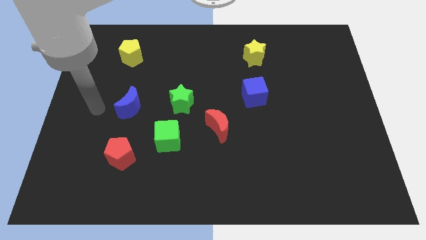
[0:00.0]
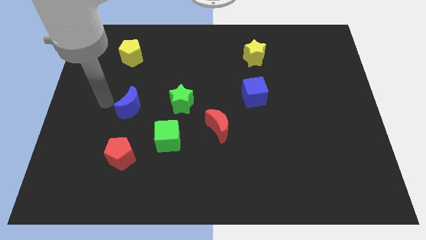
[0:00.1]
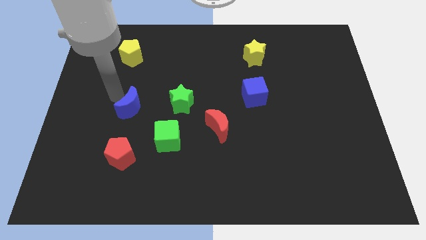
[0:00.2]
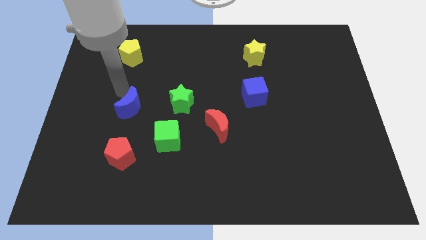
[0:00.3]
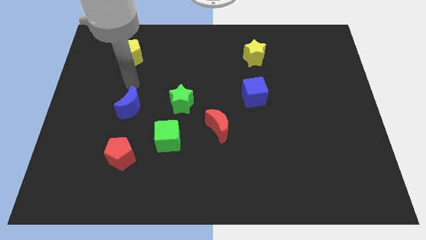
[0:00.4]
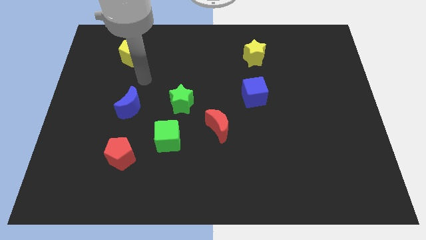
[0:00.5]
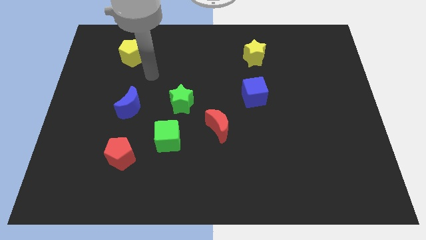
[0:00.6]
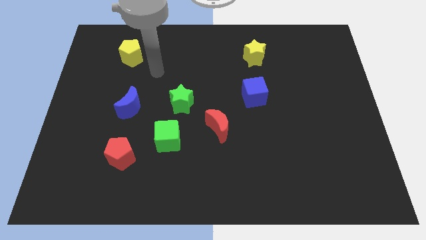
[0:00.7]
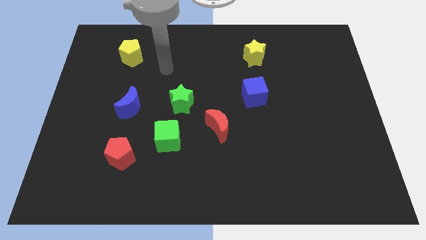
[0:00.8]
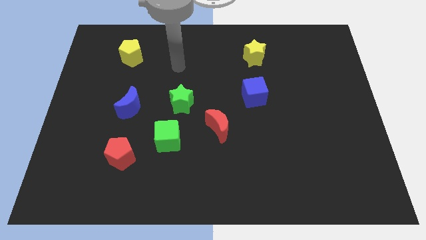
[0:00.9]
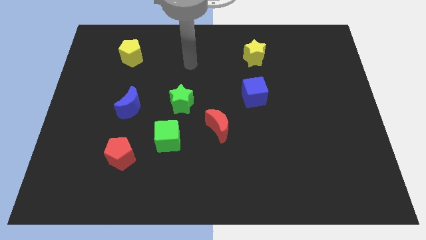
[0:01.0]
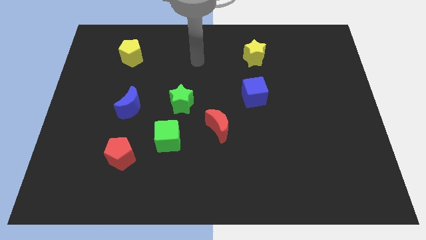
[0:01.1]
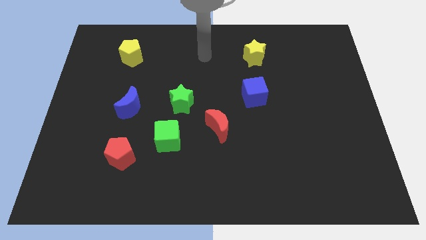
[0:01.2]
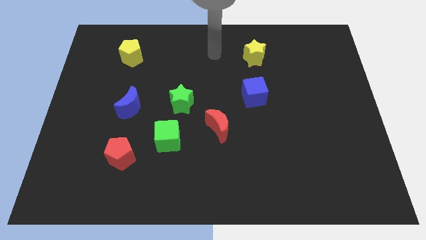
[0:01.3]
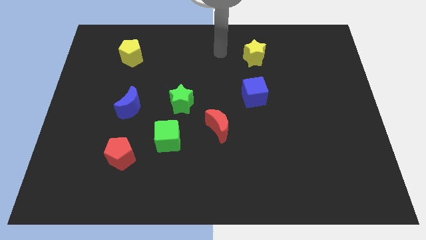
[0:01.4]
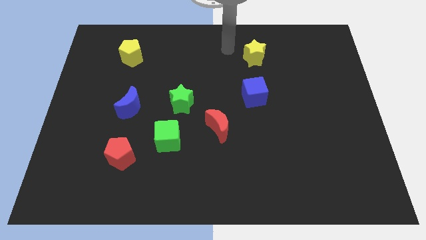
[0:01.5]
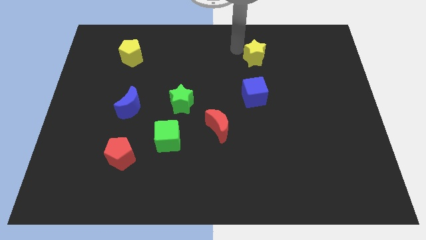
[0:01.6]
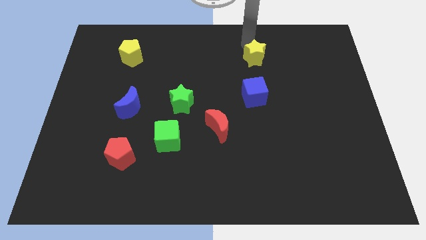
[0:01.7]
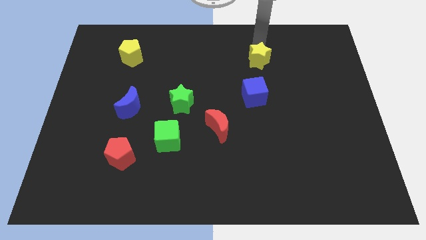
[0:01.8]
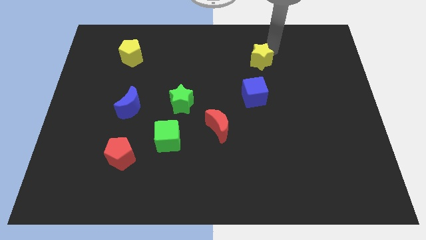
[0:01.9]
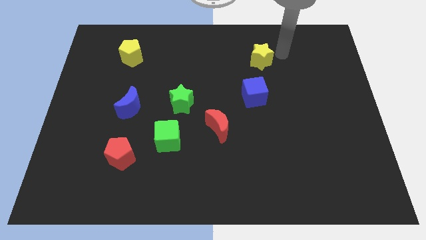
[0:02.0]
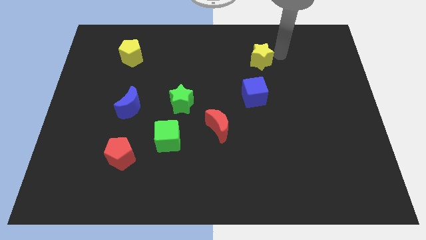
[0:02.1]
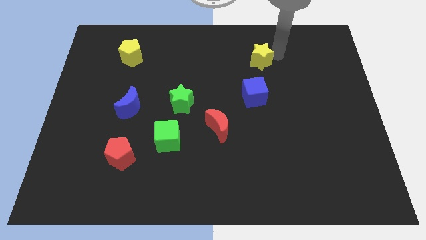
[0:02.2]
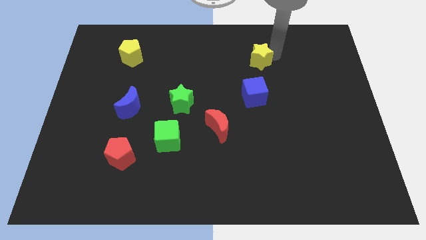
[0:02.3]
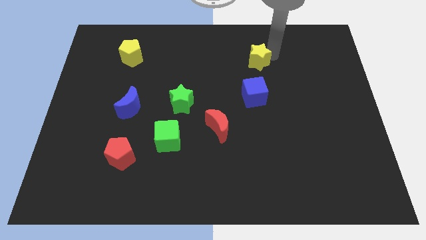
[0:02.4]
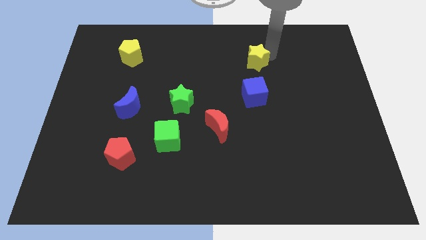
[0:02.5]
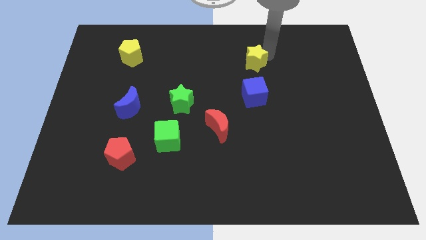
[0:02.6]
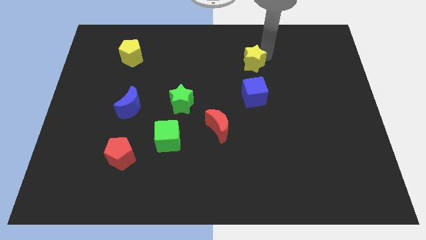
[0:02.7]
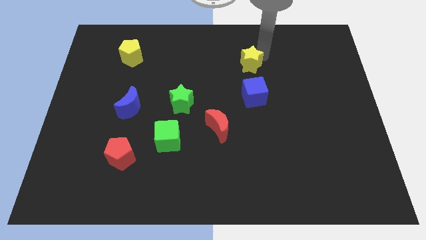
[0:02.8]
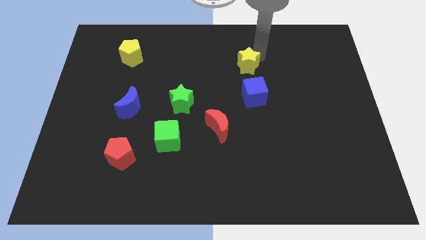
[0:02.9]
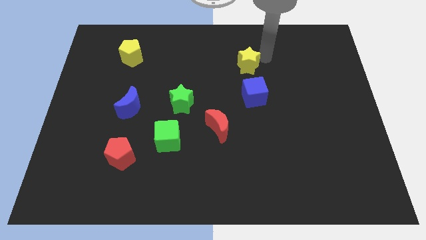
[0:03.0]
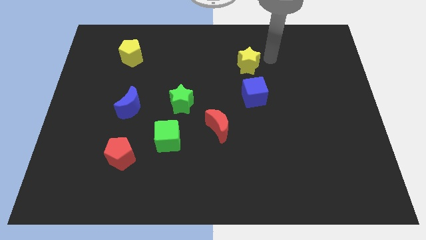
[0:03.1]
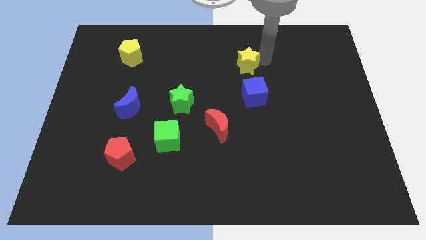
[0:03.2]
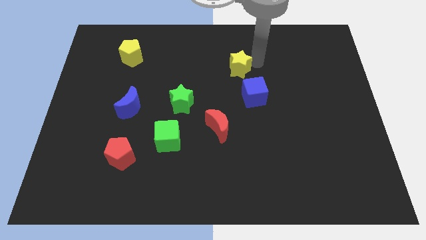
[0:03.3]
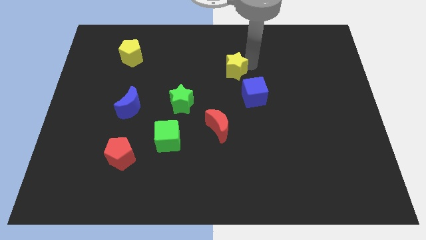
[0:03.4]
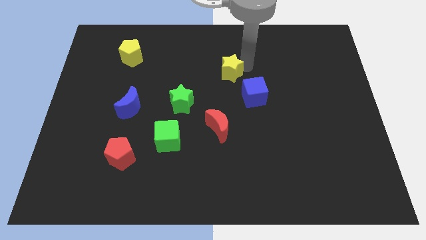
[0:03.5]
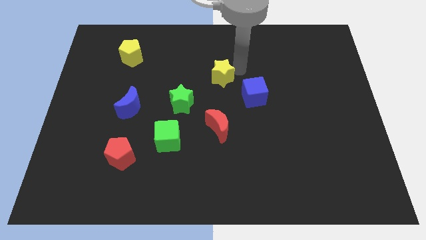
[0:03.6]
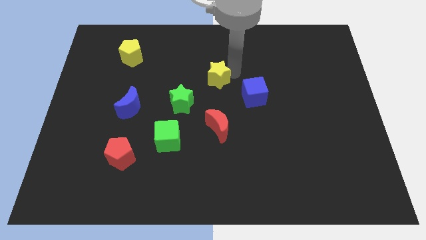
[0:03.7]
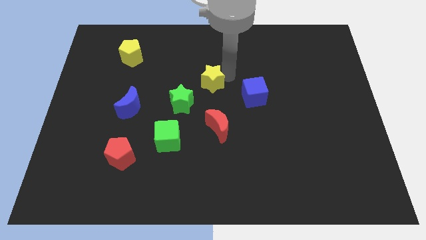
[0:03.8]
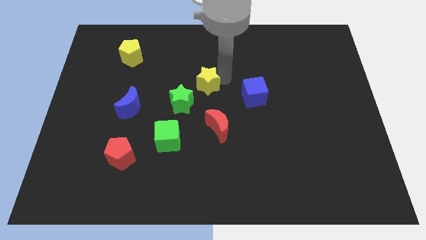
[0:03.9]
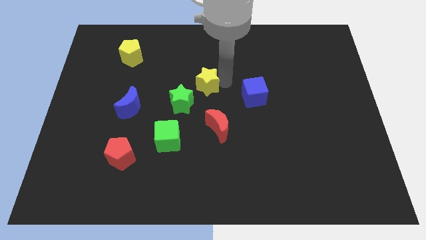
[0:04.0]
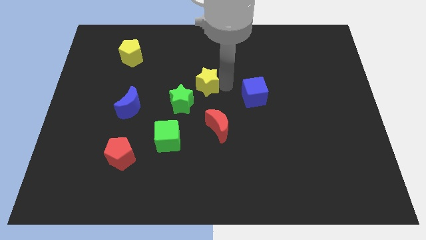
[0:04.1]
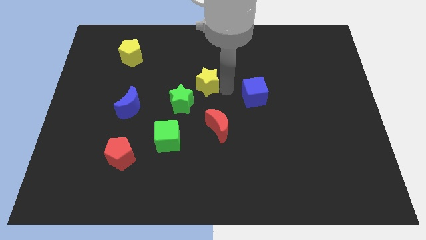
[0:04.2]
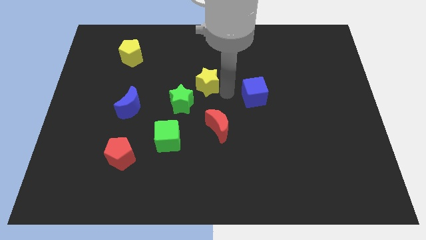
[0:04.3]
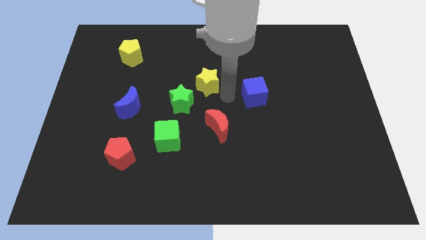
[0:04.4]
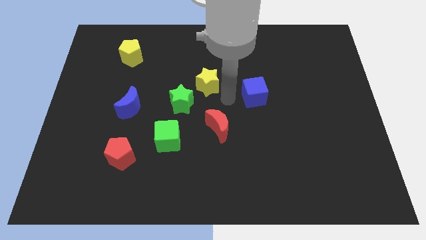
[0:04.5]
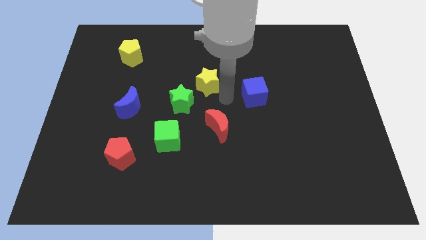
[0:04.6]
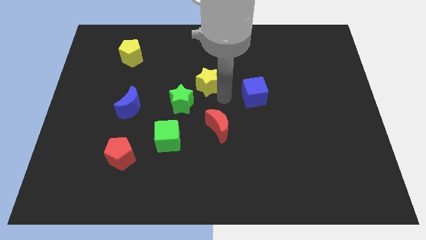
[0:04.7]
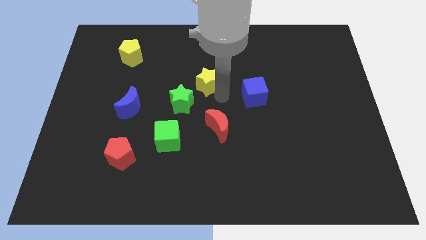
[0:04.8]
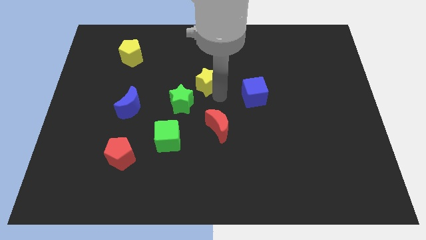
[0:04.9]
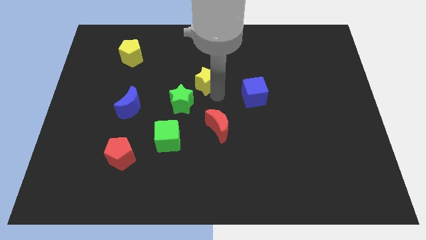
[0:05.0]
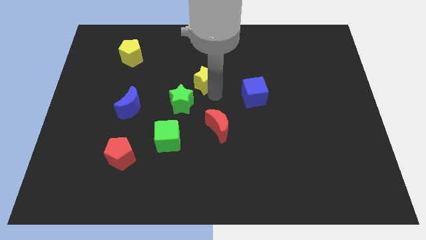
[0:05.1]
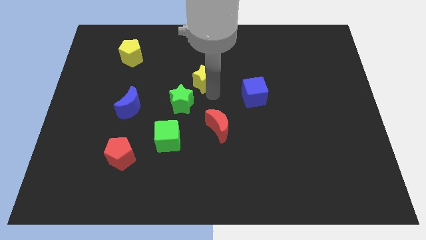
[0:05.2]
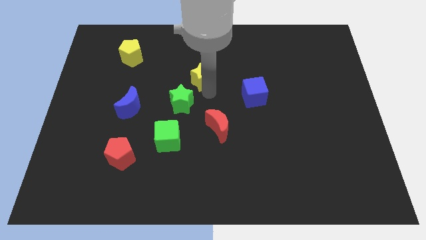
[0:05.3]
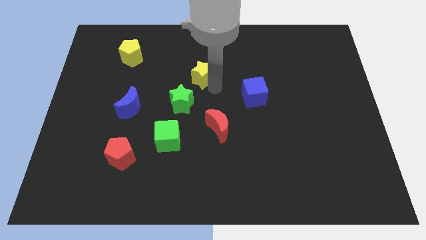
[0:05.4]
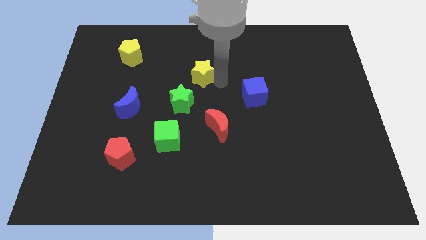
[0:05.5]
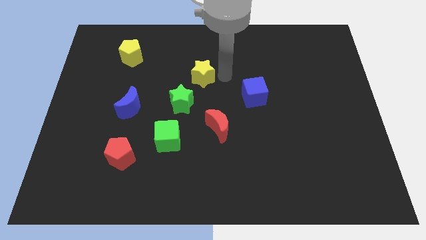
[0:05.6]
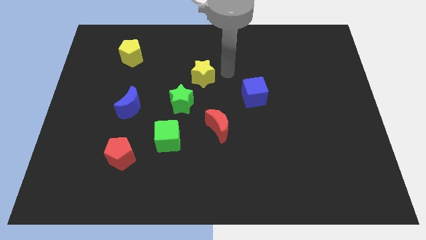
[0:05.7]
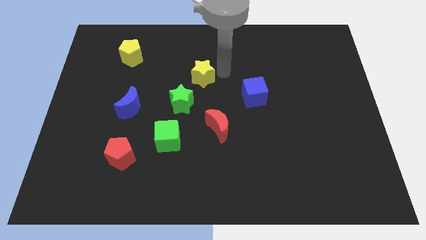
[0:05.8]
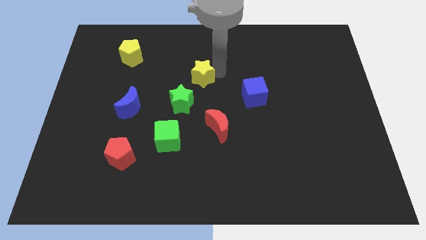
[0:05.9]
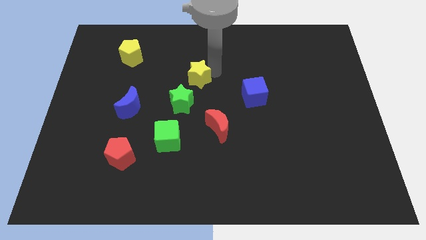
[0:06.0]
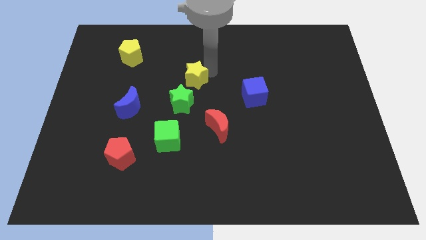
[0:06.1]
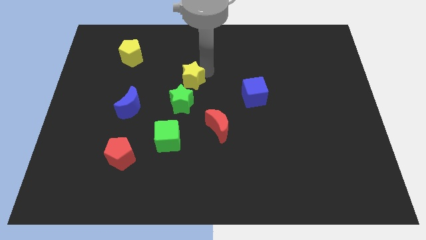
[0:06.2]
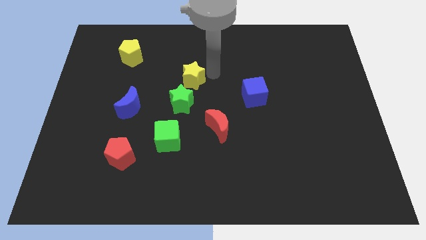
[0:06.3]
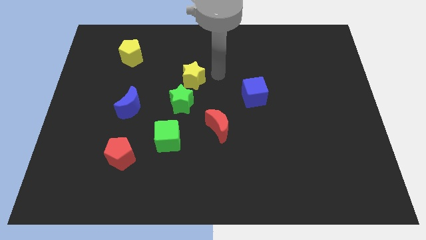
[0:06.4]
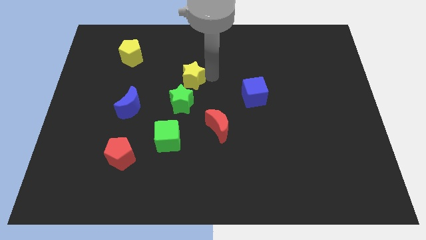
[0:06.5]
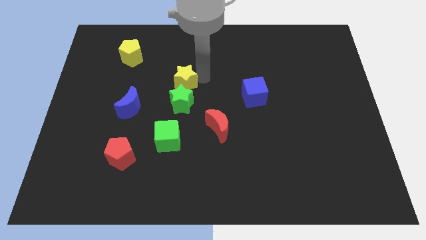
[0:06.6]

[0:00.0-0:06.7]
move the yellow star to the top left side of the green star
